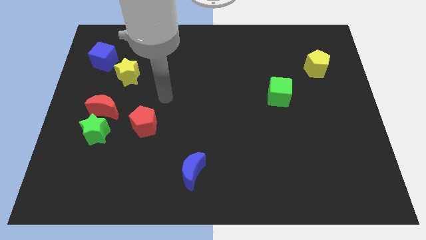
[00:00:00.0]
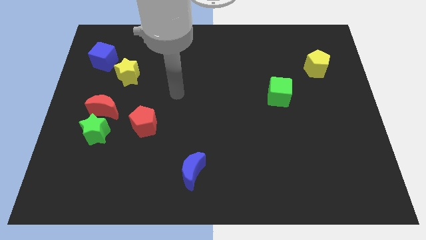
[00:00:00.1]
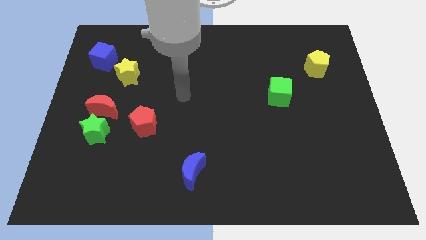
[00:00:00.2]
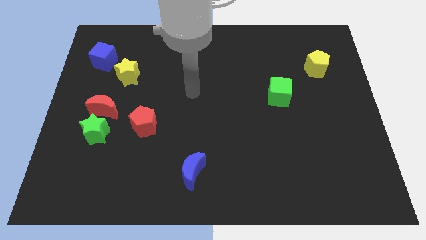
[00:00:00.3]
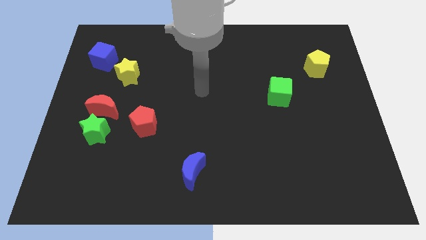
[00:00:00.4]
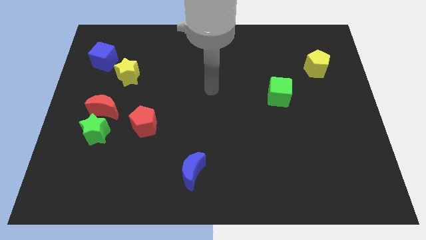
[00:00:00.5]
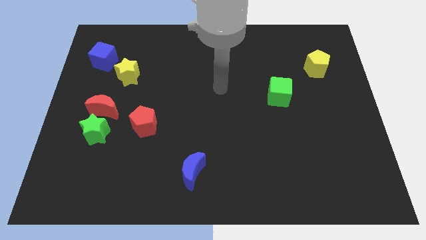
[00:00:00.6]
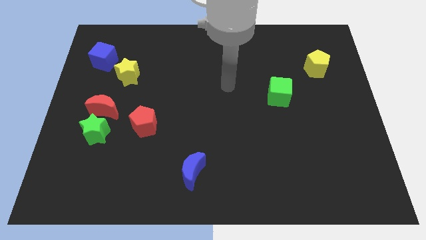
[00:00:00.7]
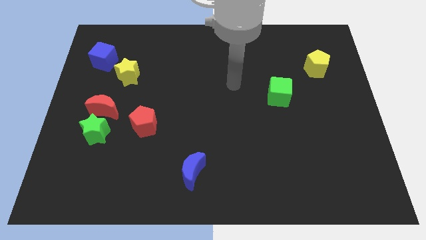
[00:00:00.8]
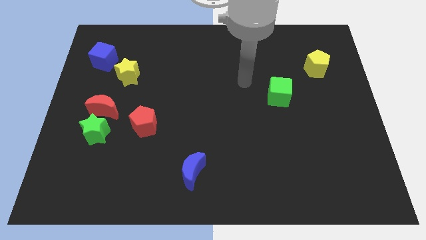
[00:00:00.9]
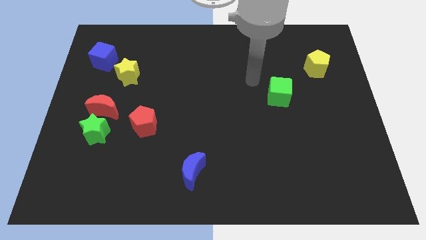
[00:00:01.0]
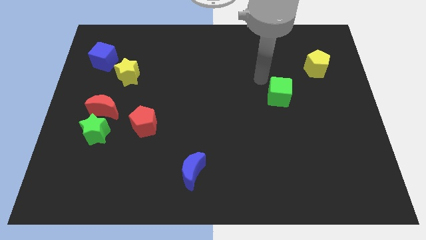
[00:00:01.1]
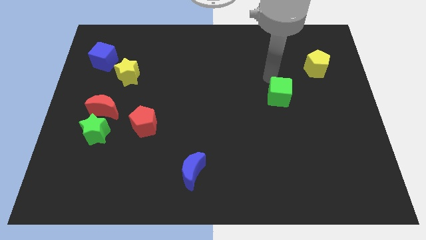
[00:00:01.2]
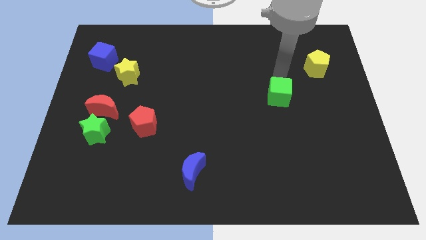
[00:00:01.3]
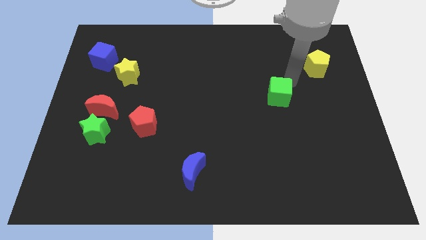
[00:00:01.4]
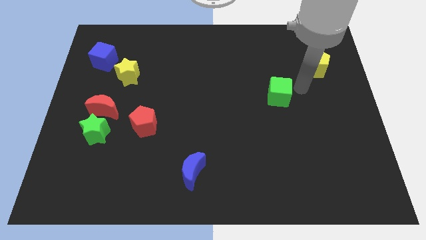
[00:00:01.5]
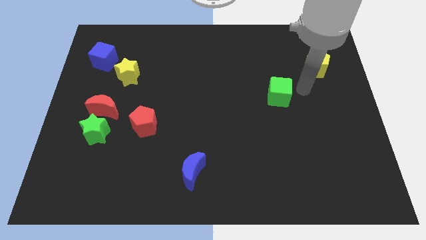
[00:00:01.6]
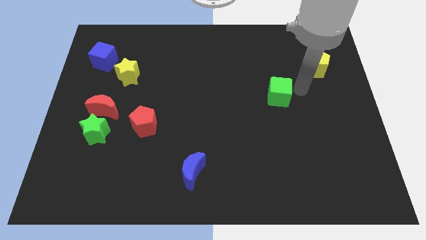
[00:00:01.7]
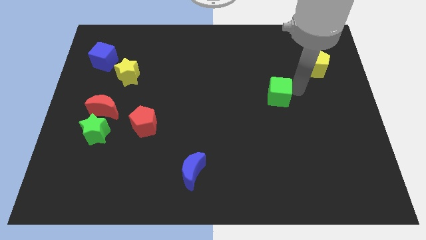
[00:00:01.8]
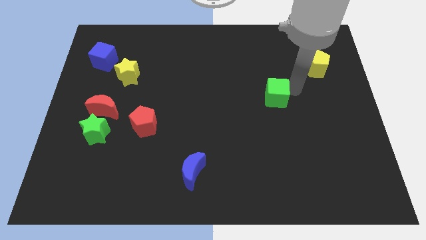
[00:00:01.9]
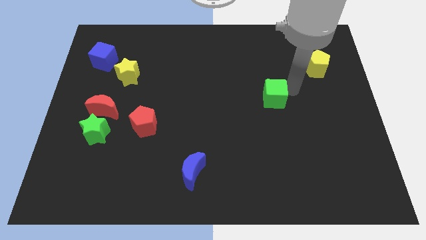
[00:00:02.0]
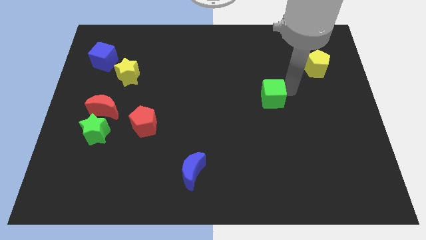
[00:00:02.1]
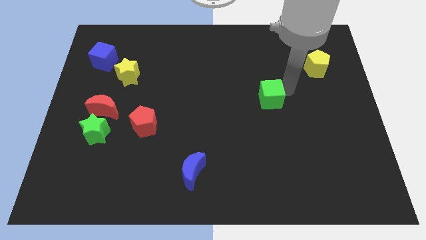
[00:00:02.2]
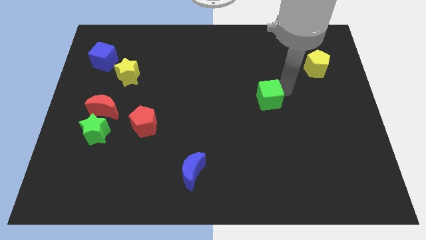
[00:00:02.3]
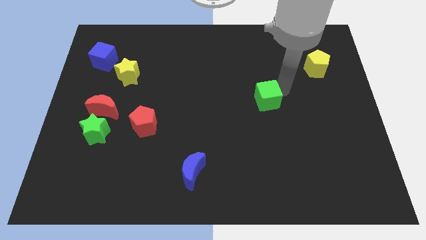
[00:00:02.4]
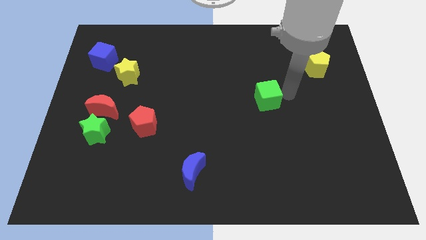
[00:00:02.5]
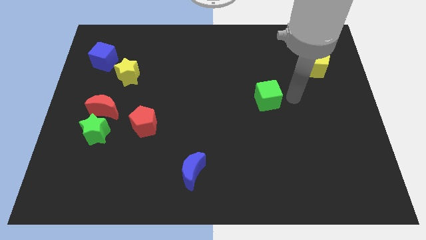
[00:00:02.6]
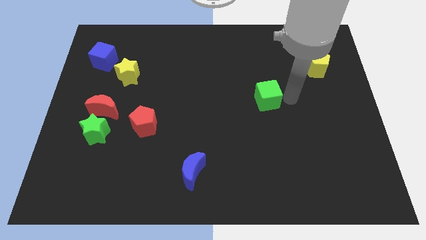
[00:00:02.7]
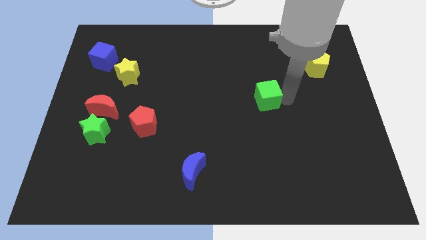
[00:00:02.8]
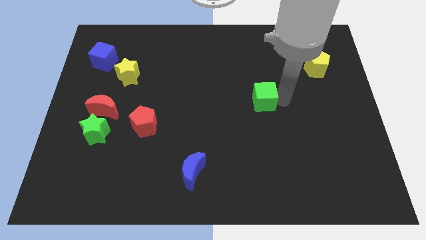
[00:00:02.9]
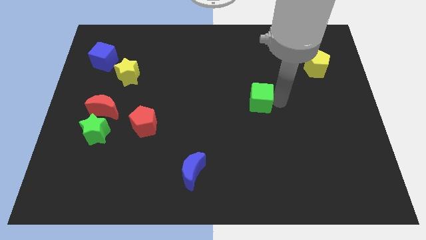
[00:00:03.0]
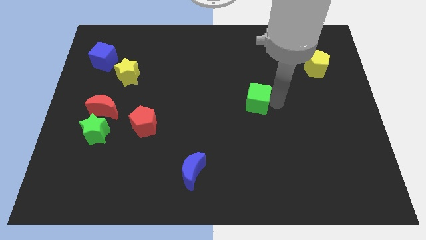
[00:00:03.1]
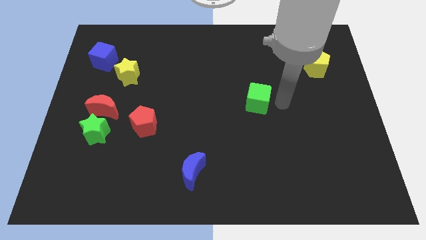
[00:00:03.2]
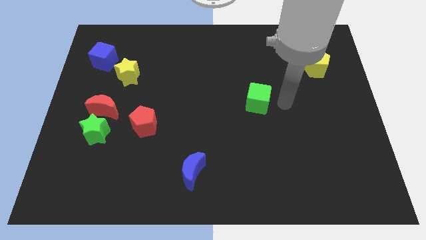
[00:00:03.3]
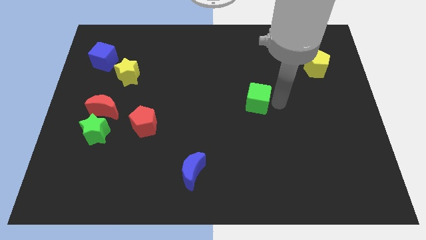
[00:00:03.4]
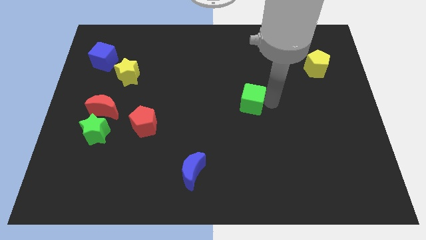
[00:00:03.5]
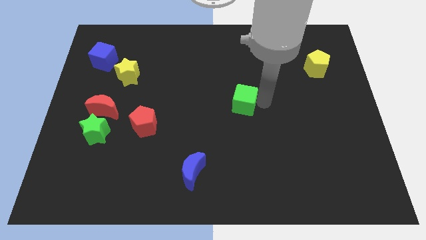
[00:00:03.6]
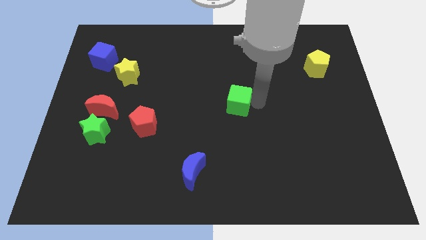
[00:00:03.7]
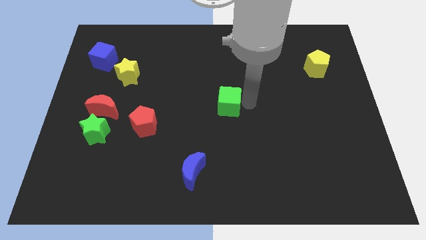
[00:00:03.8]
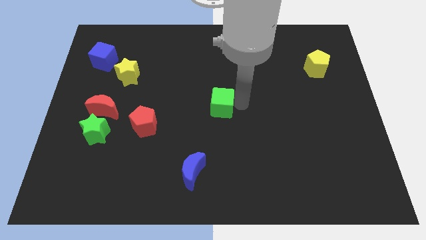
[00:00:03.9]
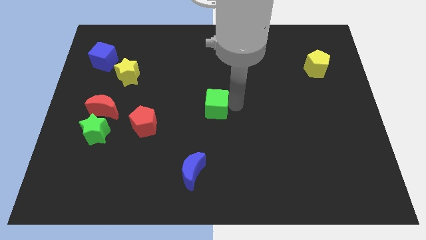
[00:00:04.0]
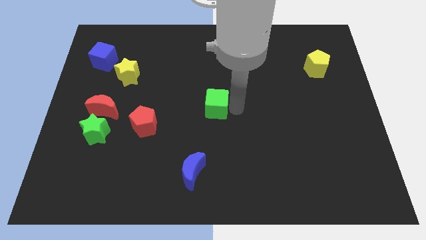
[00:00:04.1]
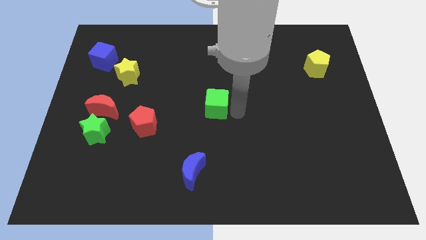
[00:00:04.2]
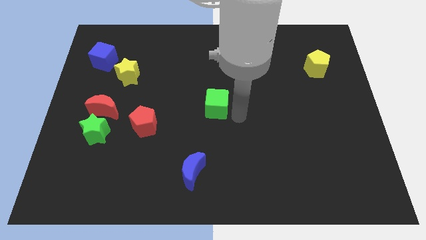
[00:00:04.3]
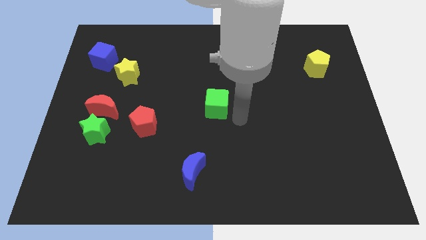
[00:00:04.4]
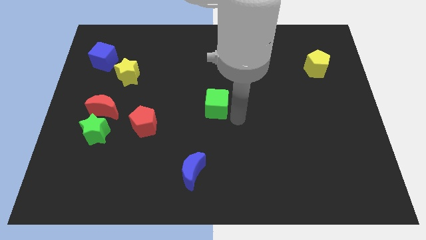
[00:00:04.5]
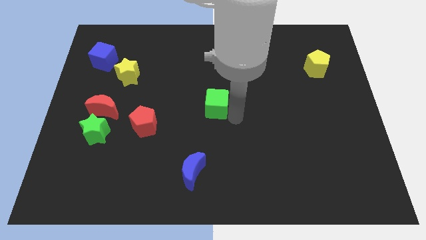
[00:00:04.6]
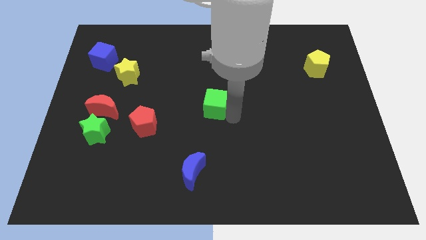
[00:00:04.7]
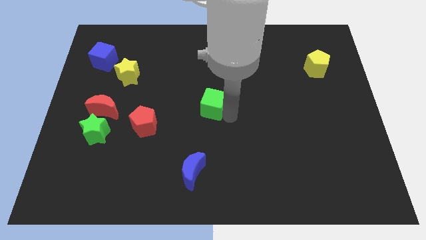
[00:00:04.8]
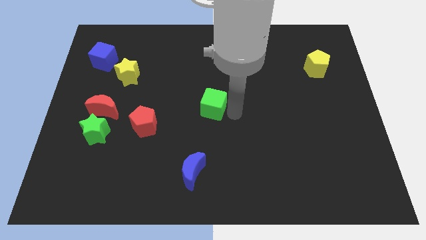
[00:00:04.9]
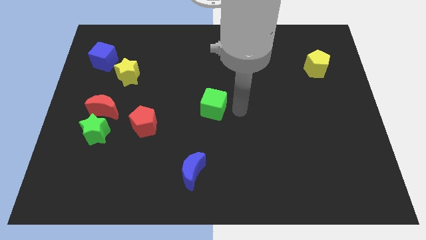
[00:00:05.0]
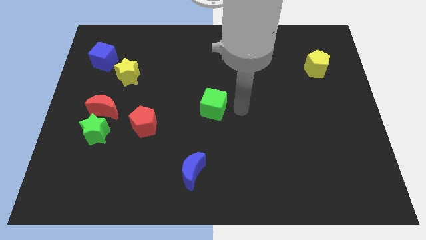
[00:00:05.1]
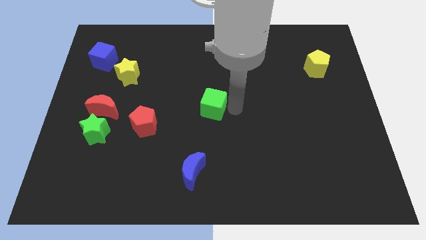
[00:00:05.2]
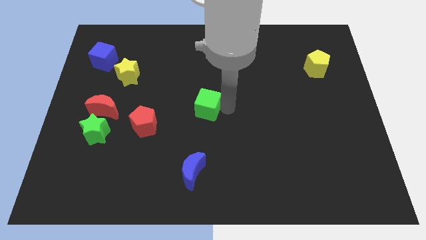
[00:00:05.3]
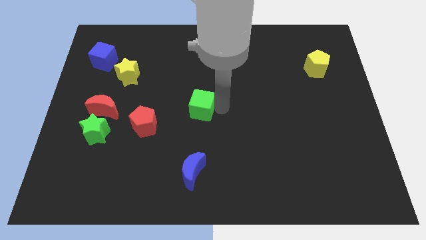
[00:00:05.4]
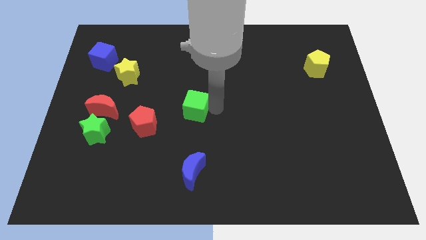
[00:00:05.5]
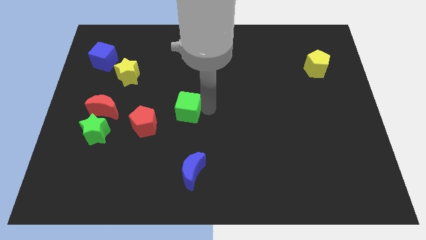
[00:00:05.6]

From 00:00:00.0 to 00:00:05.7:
slide the green cube to the top right of the red pentagon

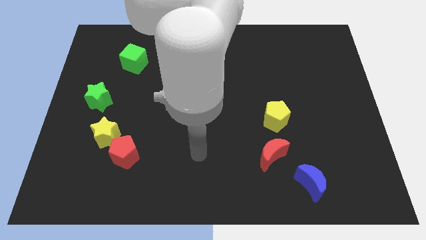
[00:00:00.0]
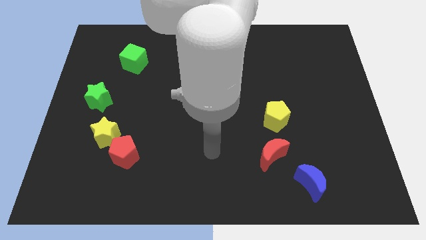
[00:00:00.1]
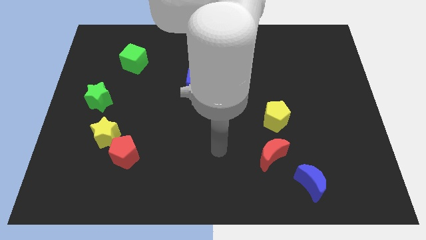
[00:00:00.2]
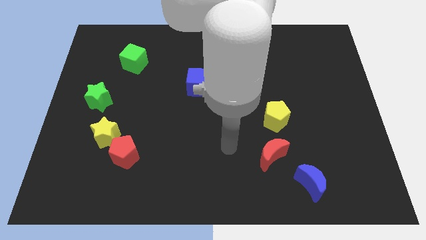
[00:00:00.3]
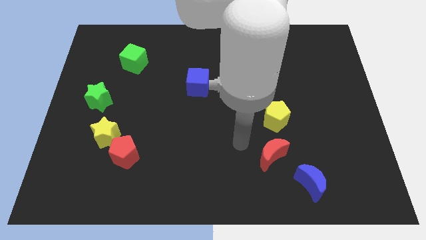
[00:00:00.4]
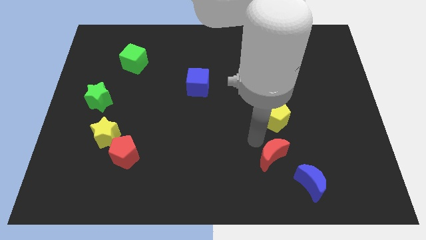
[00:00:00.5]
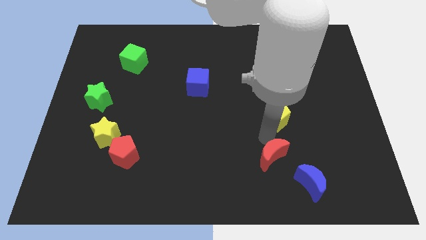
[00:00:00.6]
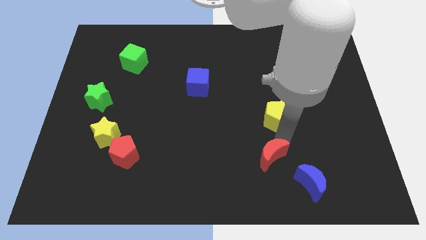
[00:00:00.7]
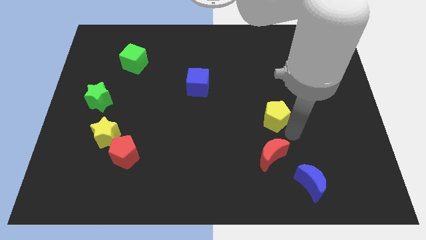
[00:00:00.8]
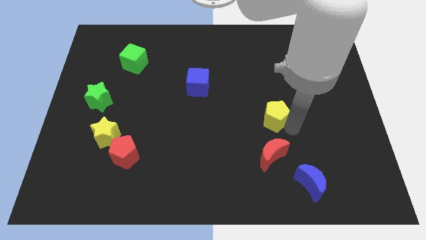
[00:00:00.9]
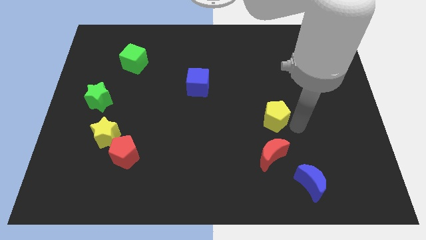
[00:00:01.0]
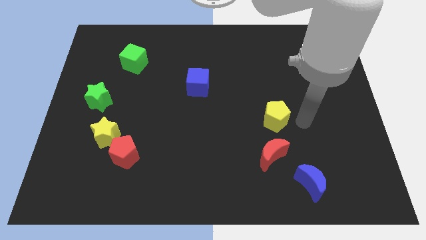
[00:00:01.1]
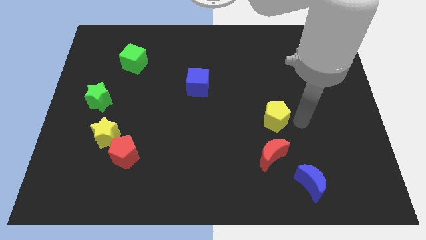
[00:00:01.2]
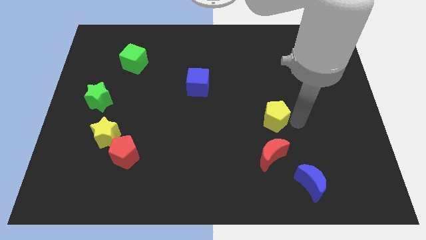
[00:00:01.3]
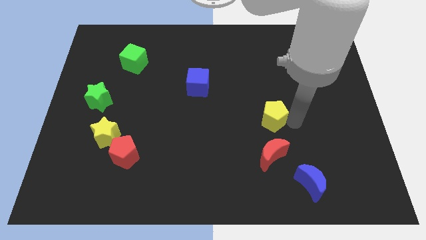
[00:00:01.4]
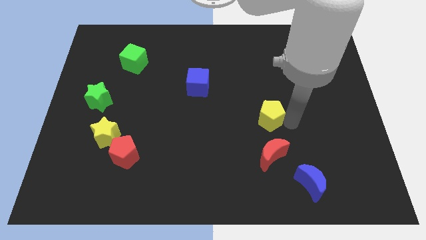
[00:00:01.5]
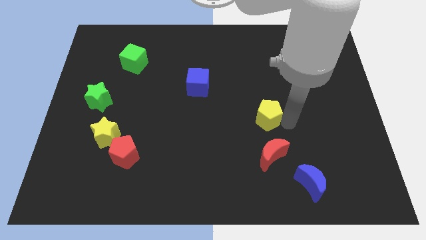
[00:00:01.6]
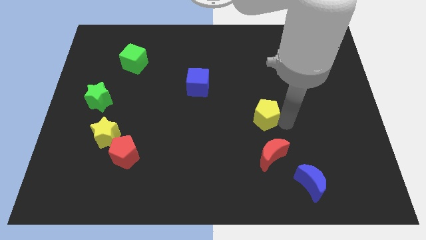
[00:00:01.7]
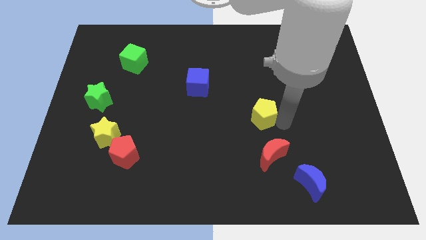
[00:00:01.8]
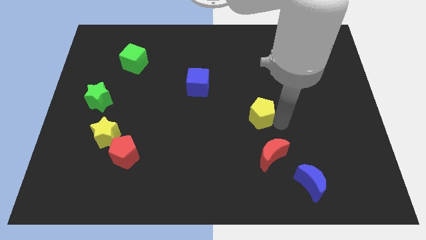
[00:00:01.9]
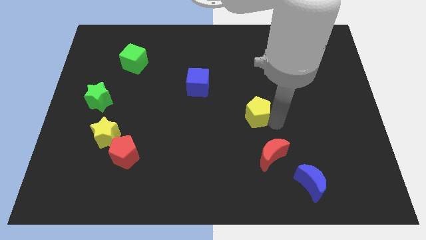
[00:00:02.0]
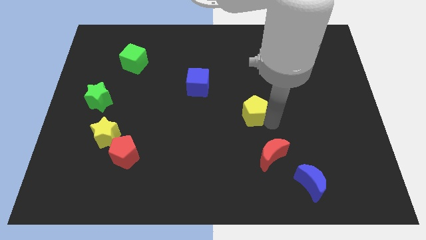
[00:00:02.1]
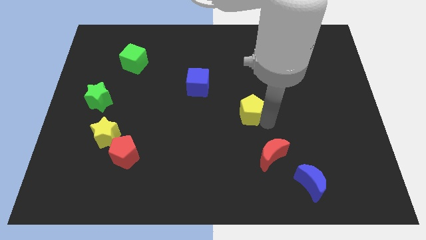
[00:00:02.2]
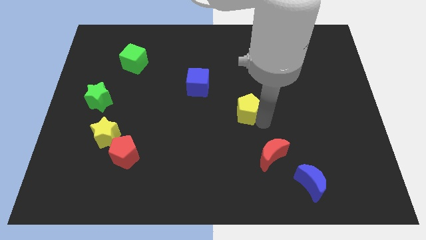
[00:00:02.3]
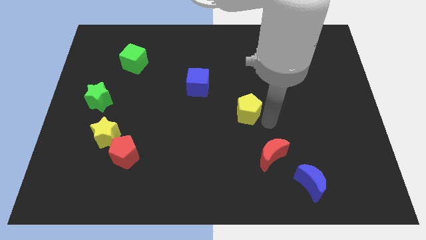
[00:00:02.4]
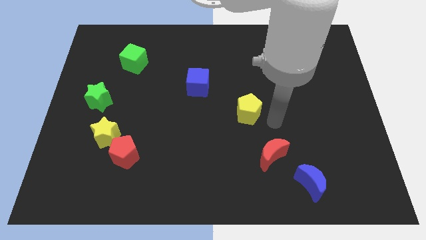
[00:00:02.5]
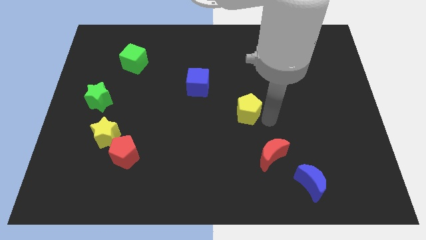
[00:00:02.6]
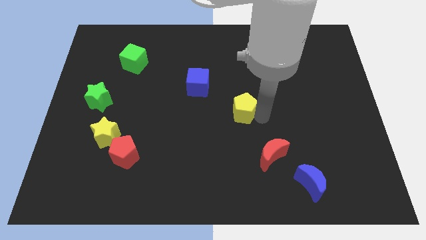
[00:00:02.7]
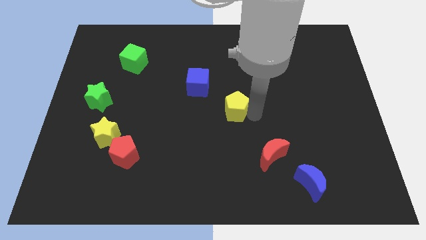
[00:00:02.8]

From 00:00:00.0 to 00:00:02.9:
move the yellow pentagon to the bottom right of the blue cube
